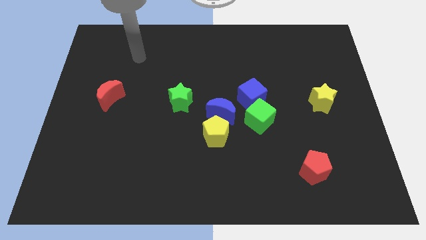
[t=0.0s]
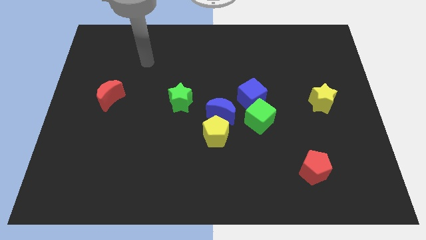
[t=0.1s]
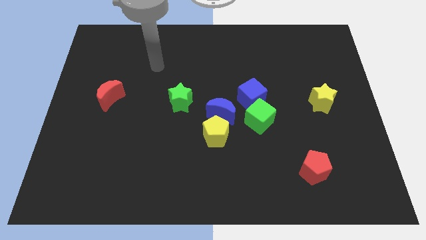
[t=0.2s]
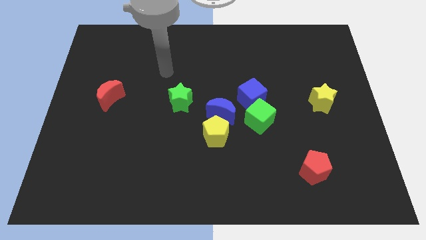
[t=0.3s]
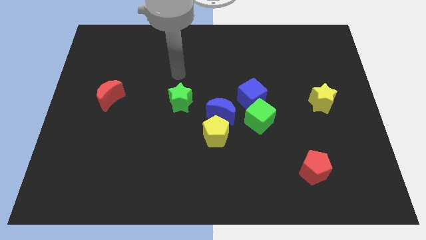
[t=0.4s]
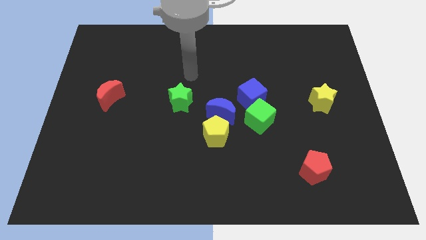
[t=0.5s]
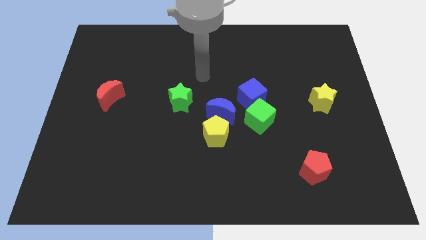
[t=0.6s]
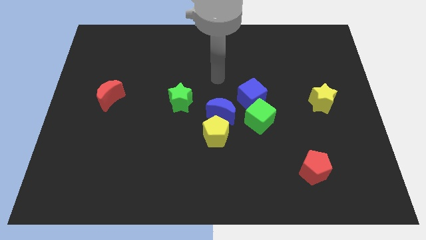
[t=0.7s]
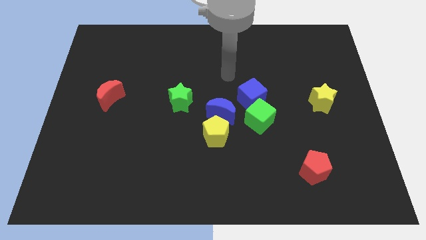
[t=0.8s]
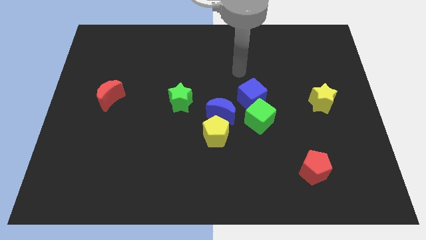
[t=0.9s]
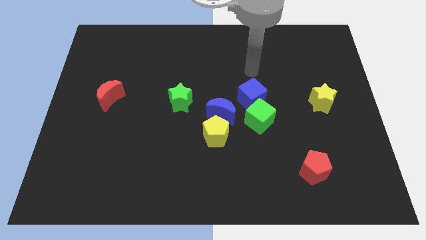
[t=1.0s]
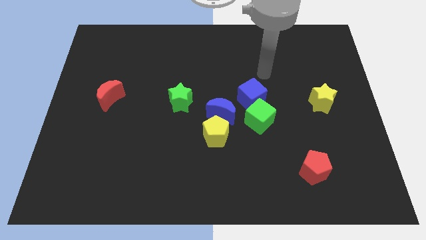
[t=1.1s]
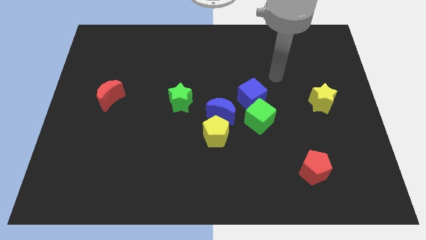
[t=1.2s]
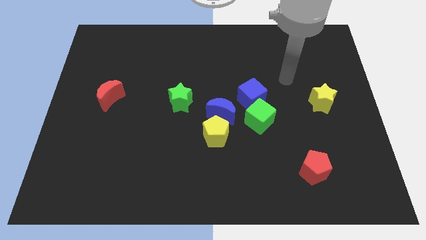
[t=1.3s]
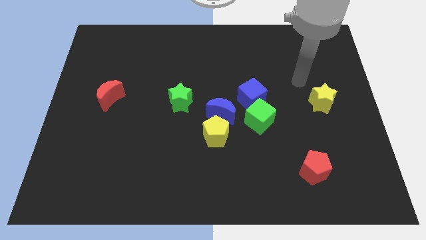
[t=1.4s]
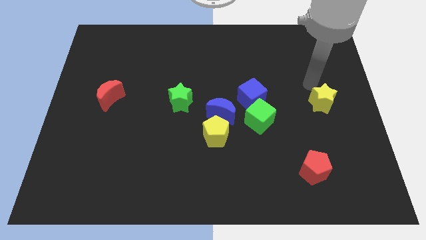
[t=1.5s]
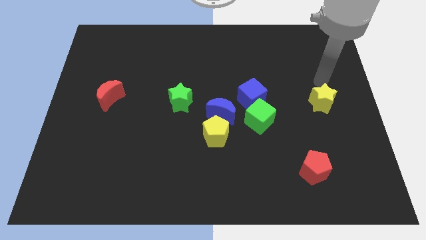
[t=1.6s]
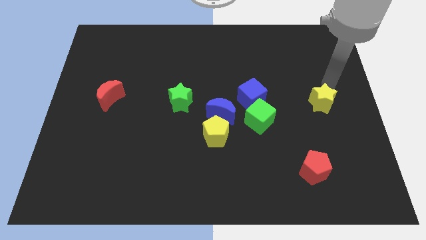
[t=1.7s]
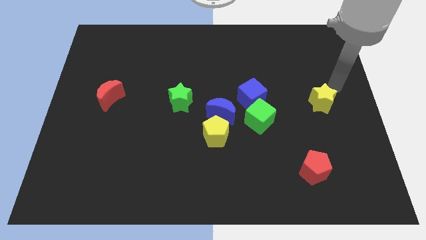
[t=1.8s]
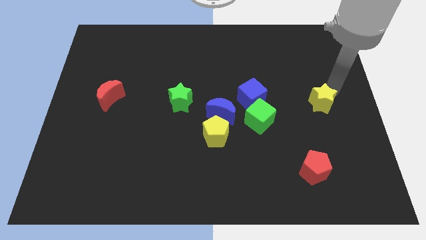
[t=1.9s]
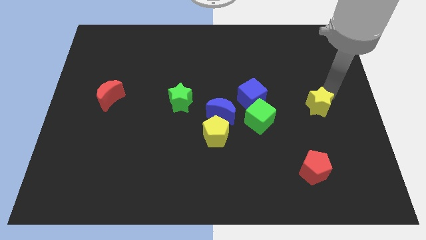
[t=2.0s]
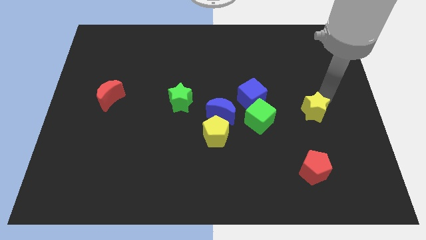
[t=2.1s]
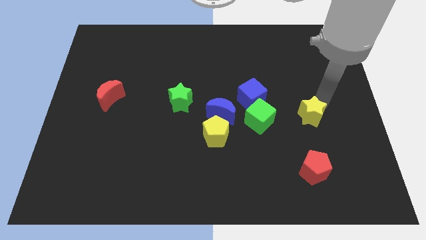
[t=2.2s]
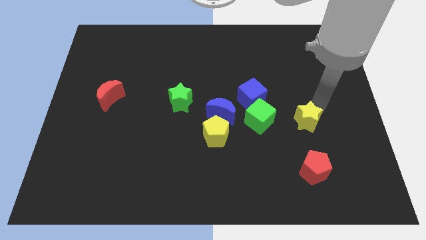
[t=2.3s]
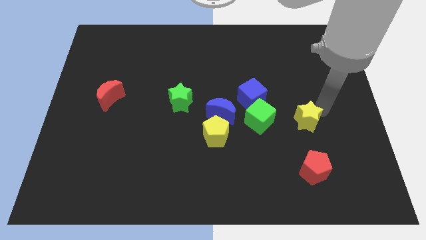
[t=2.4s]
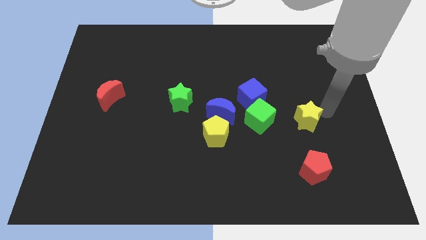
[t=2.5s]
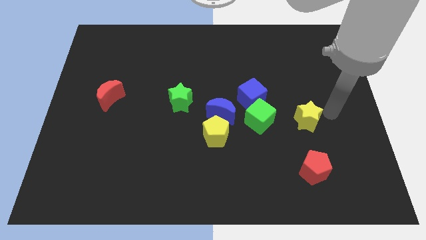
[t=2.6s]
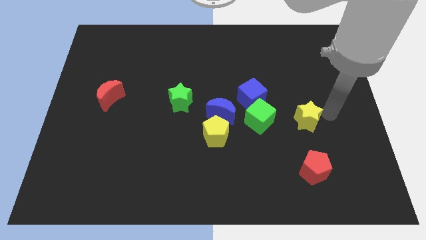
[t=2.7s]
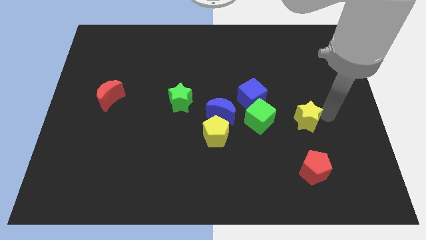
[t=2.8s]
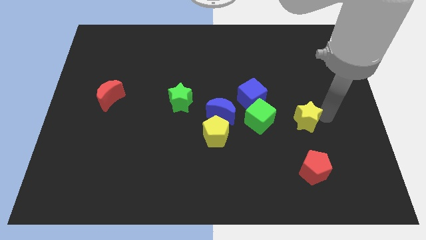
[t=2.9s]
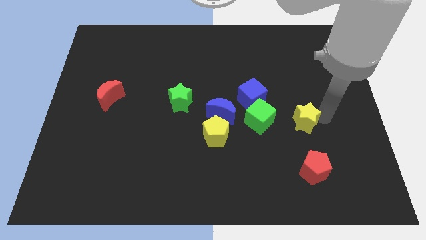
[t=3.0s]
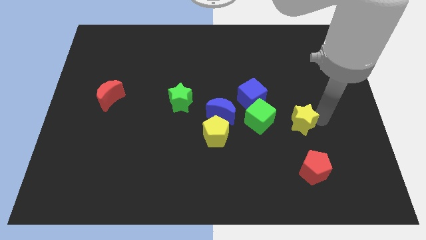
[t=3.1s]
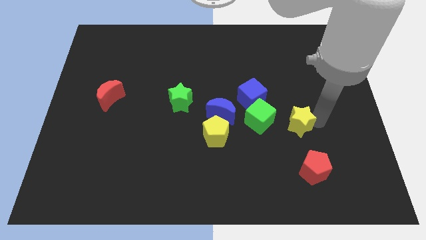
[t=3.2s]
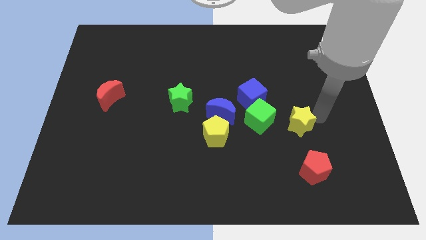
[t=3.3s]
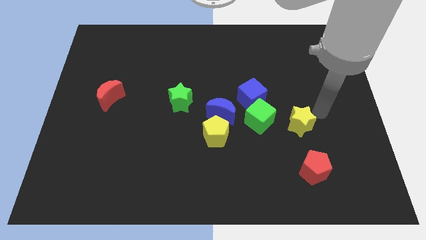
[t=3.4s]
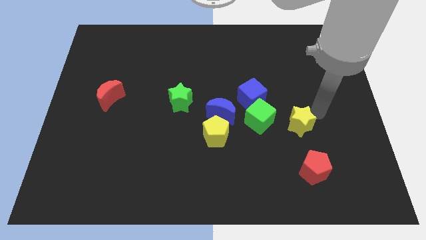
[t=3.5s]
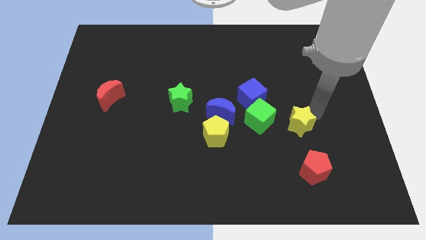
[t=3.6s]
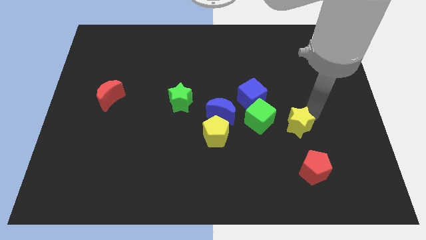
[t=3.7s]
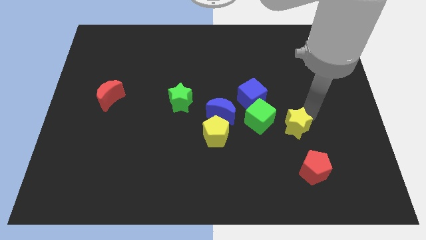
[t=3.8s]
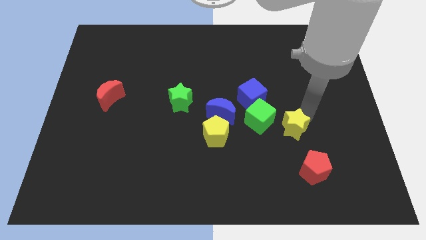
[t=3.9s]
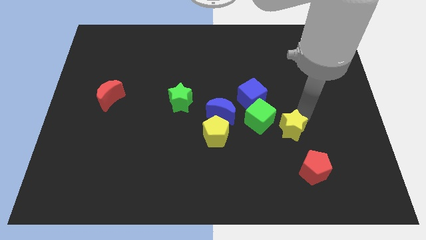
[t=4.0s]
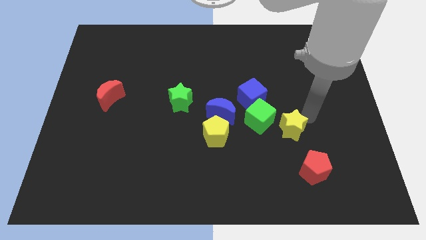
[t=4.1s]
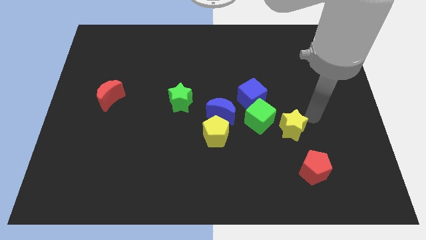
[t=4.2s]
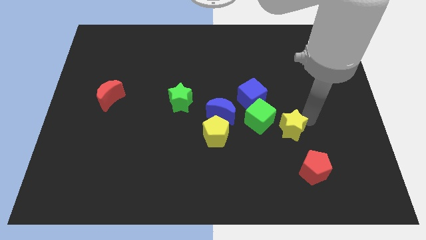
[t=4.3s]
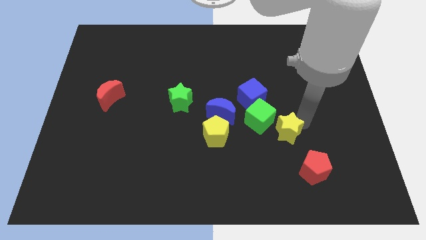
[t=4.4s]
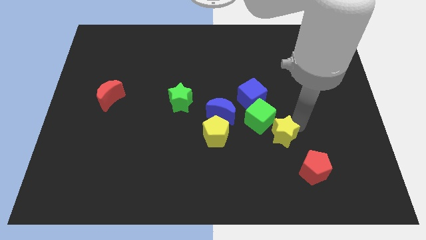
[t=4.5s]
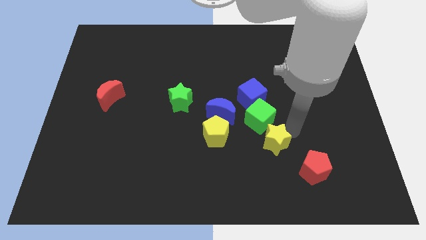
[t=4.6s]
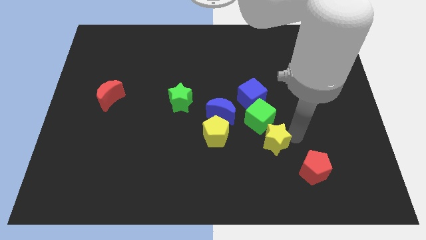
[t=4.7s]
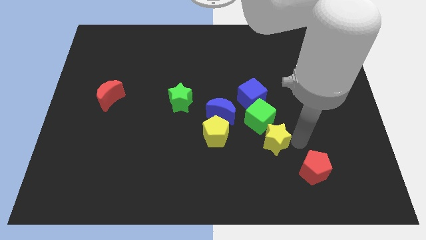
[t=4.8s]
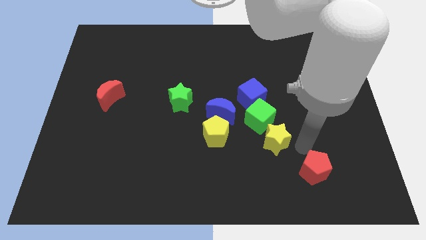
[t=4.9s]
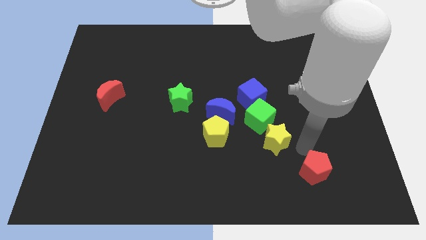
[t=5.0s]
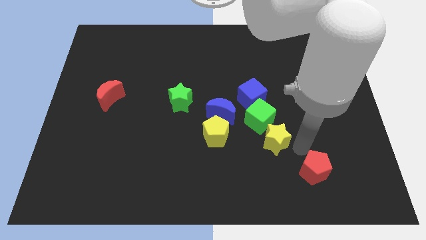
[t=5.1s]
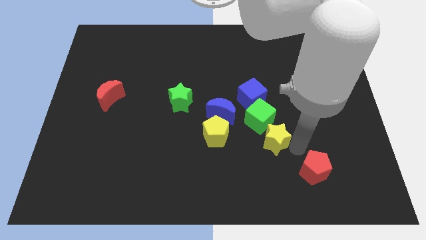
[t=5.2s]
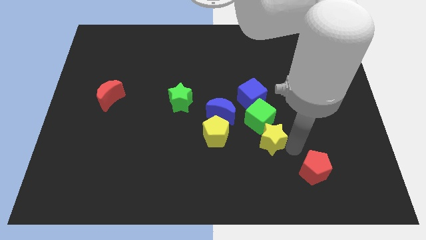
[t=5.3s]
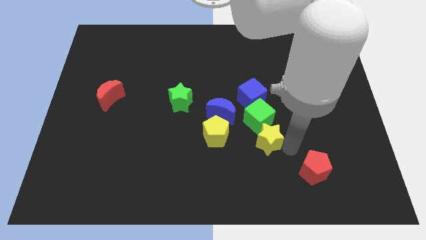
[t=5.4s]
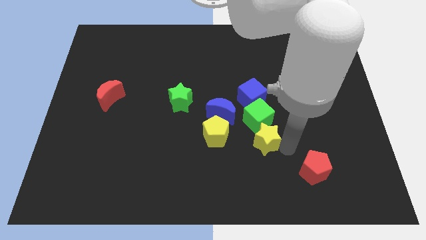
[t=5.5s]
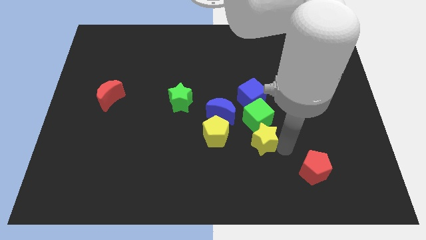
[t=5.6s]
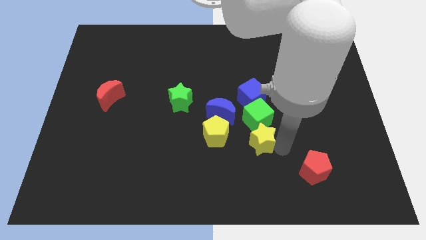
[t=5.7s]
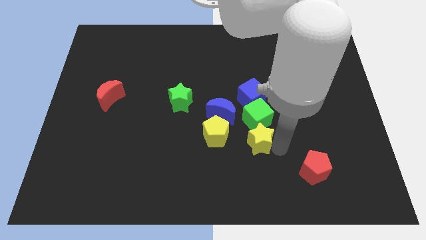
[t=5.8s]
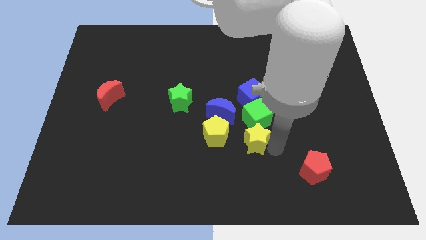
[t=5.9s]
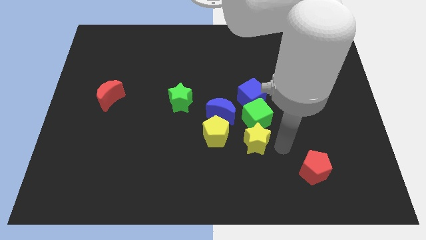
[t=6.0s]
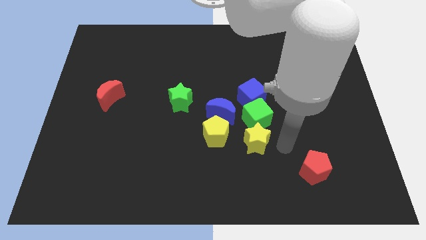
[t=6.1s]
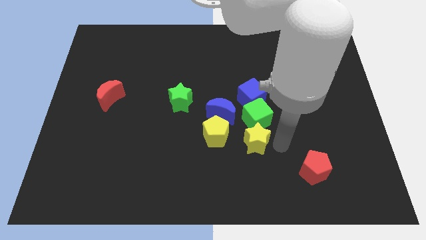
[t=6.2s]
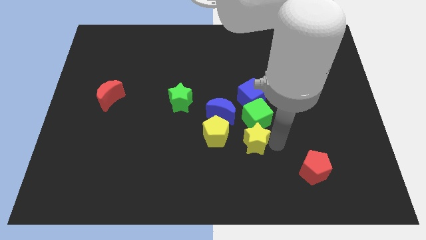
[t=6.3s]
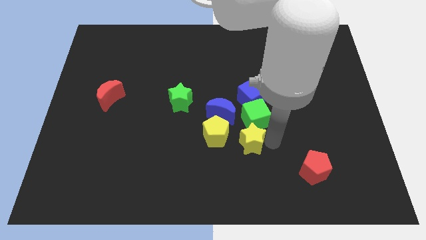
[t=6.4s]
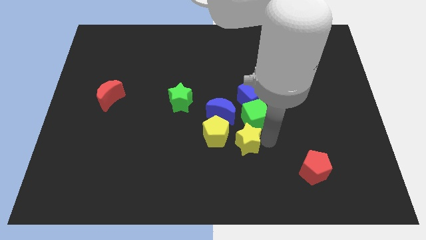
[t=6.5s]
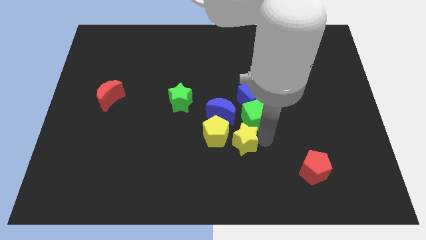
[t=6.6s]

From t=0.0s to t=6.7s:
move the yellow star to the yellow pentagon

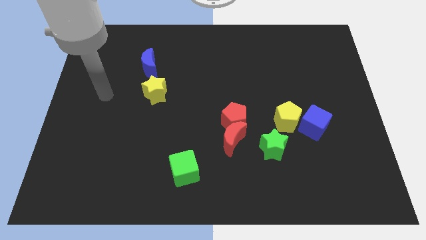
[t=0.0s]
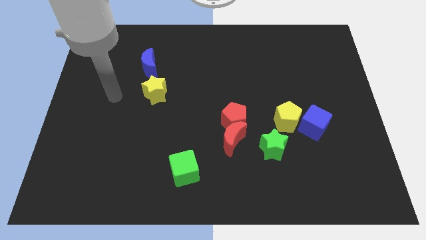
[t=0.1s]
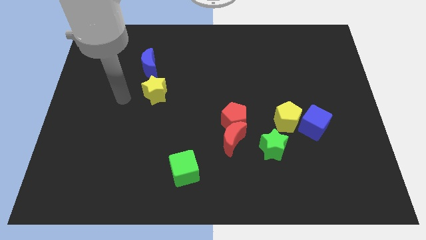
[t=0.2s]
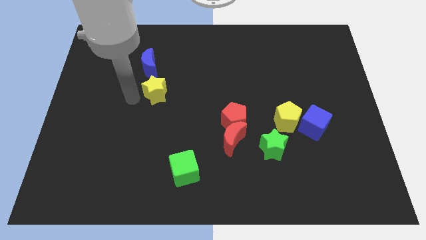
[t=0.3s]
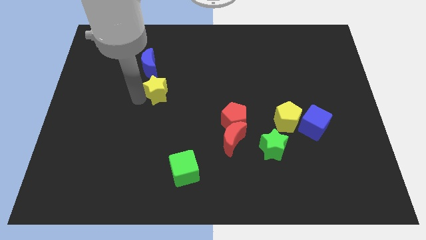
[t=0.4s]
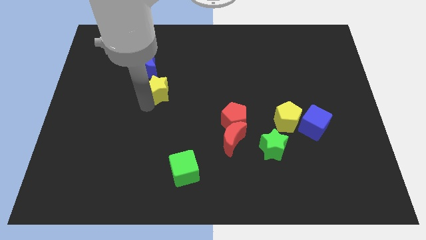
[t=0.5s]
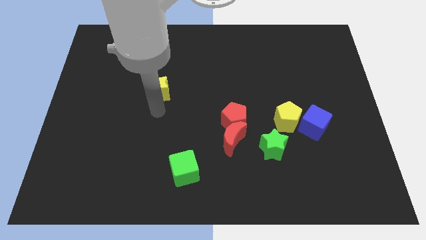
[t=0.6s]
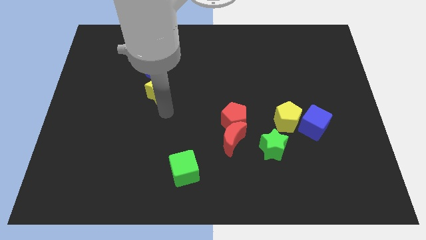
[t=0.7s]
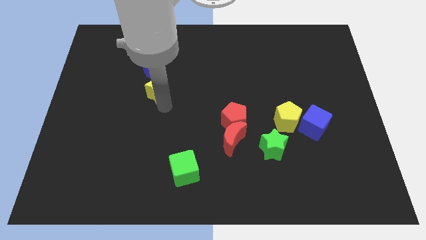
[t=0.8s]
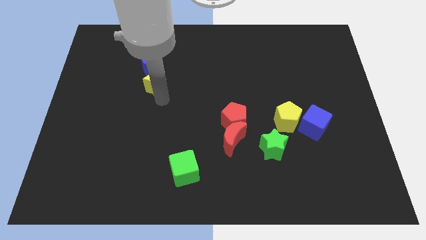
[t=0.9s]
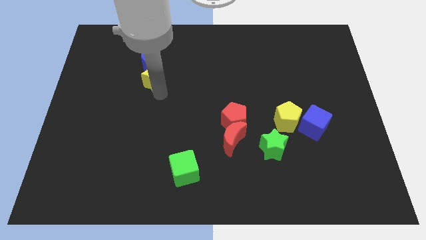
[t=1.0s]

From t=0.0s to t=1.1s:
move the yellow star next to the blue moon
